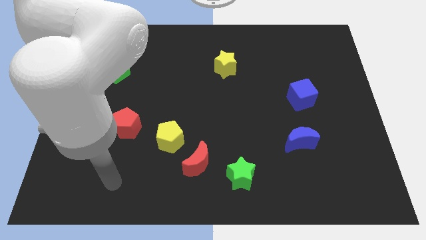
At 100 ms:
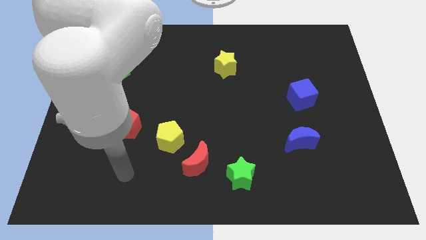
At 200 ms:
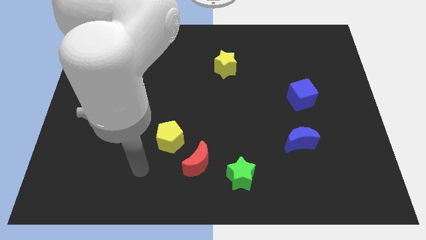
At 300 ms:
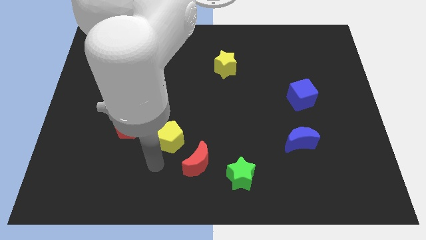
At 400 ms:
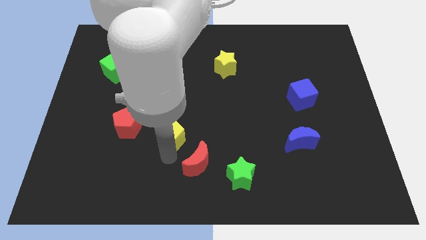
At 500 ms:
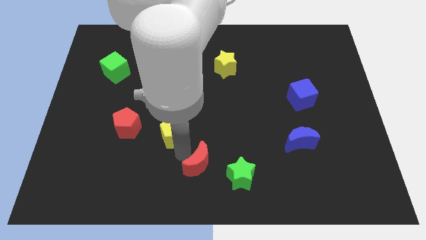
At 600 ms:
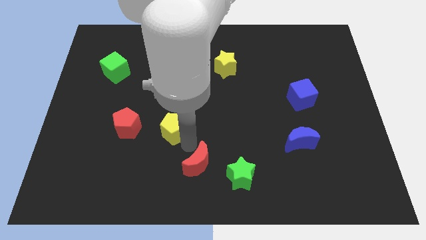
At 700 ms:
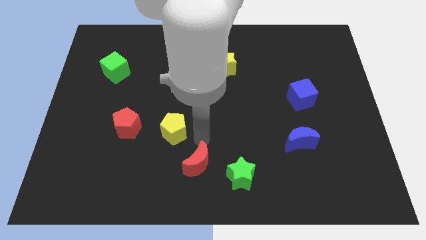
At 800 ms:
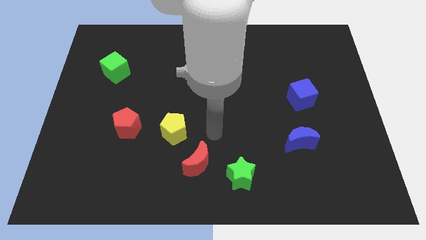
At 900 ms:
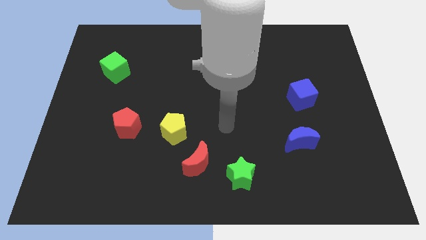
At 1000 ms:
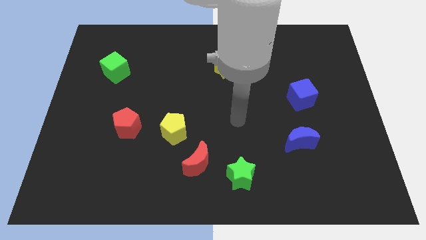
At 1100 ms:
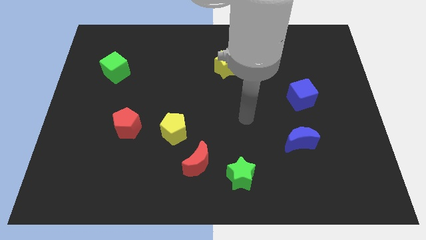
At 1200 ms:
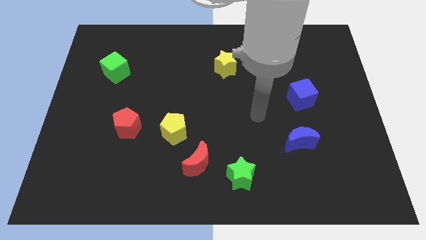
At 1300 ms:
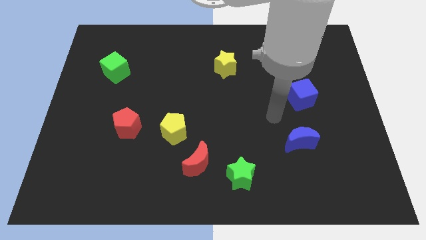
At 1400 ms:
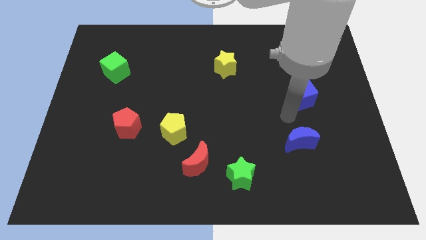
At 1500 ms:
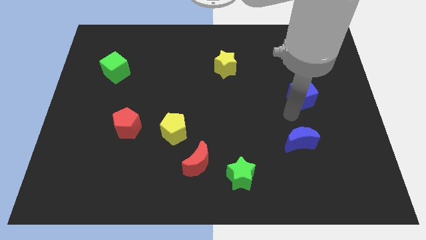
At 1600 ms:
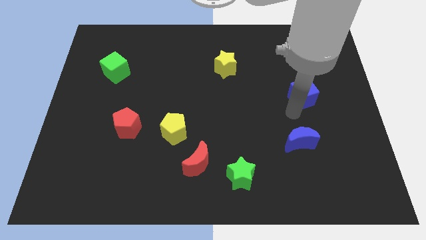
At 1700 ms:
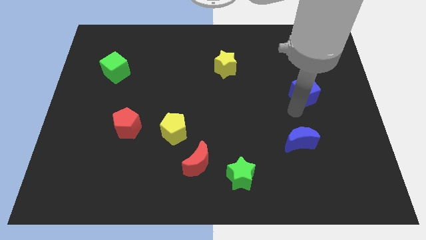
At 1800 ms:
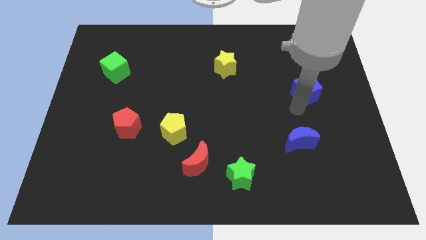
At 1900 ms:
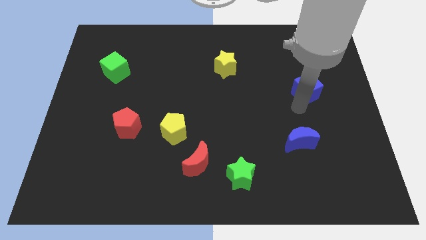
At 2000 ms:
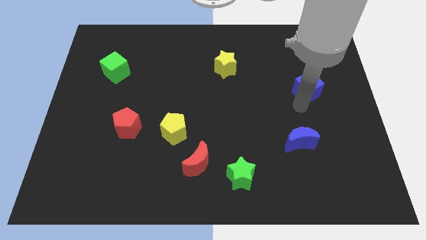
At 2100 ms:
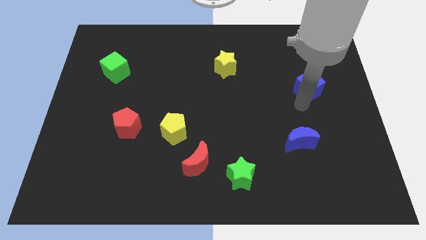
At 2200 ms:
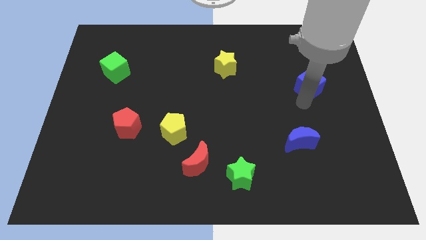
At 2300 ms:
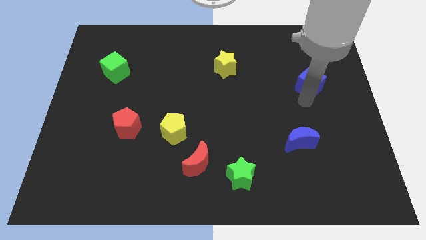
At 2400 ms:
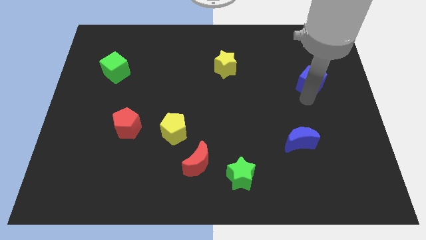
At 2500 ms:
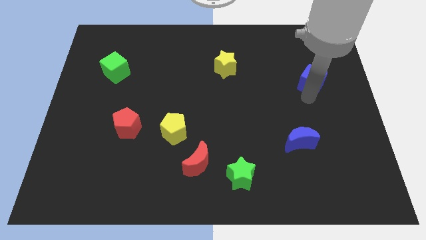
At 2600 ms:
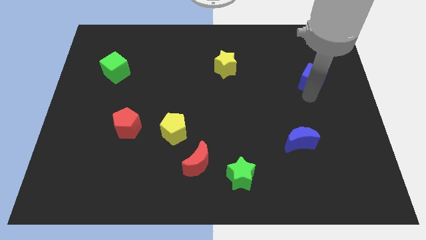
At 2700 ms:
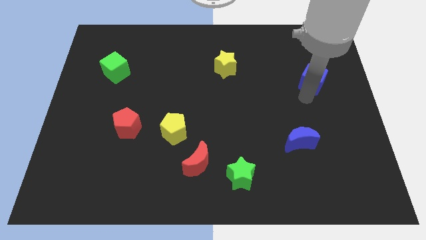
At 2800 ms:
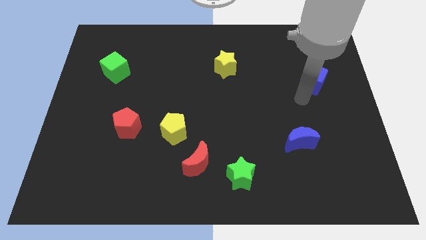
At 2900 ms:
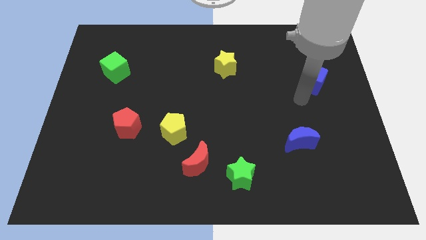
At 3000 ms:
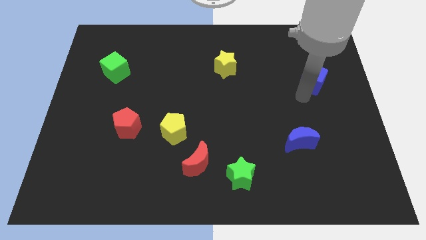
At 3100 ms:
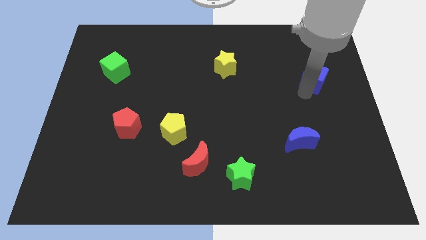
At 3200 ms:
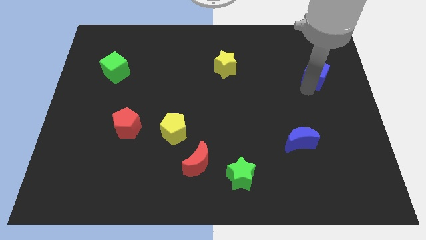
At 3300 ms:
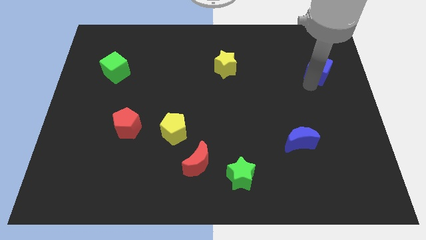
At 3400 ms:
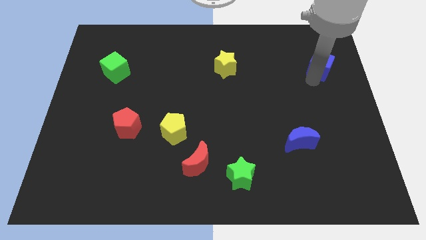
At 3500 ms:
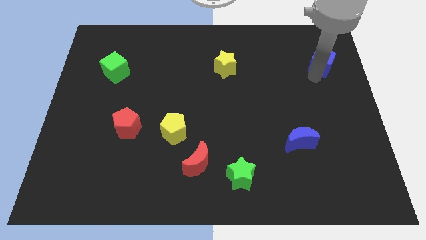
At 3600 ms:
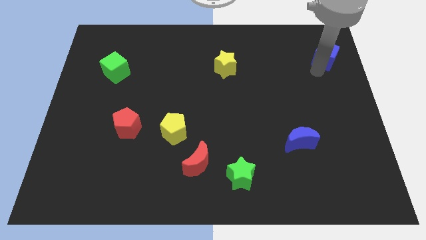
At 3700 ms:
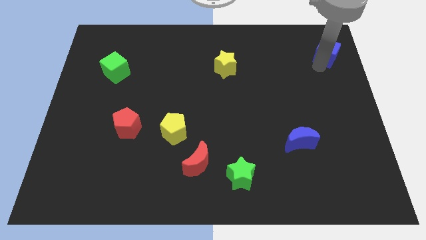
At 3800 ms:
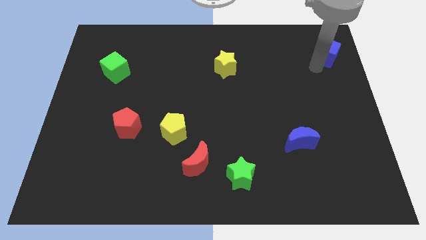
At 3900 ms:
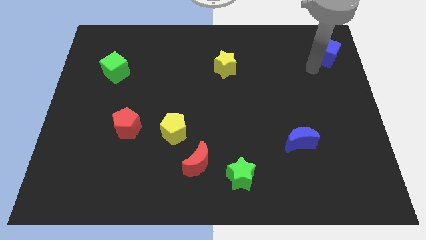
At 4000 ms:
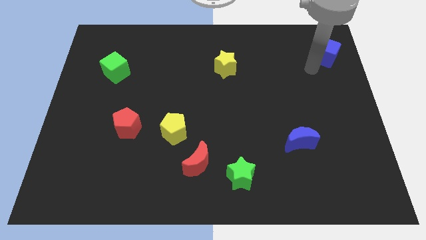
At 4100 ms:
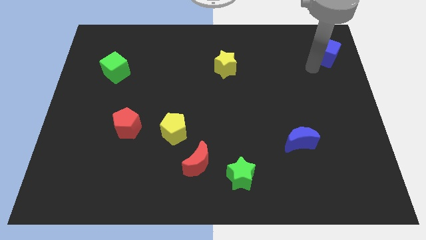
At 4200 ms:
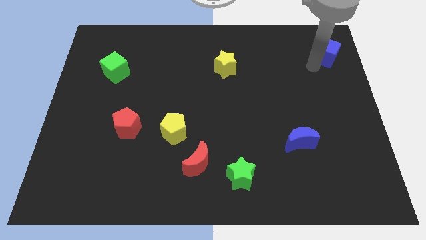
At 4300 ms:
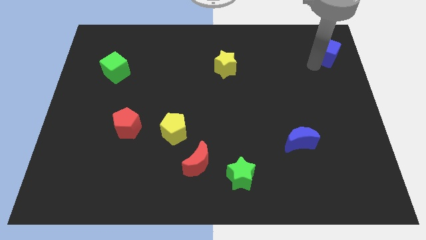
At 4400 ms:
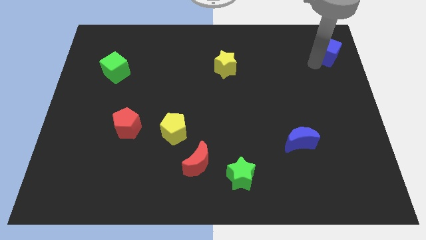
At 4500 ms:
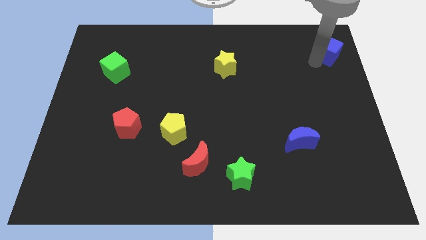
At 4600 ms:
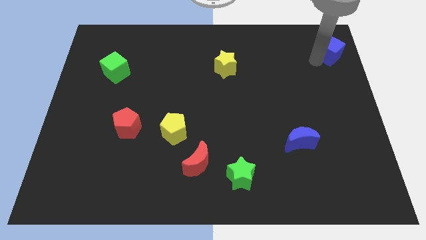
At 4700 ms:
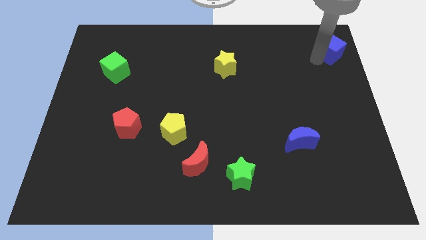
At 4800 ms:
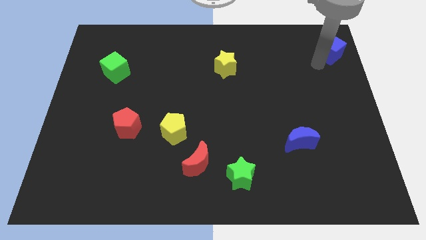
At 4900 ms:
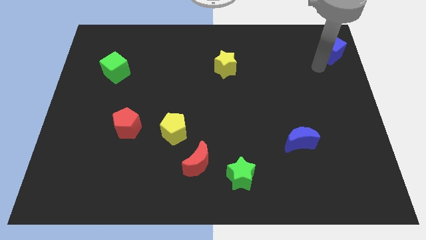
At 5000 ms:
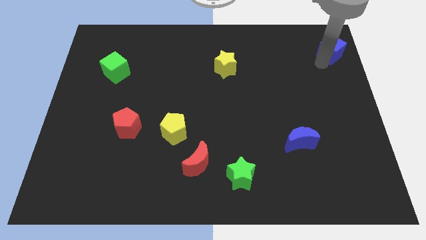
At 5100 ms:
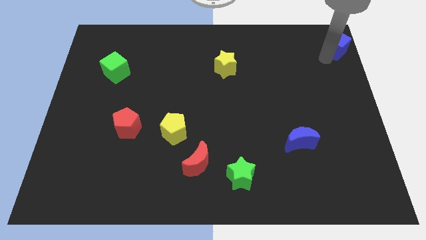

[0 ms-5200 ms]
put the blue cube to the top right of the board

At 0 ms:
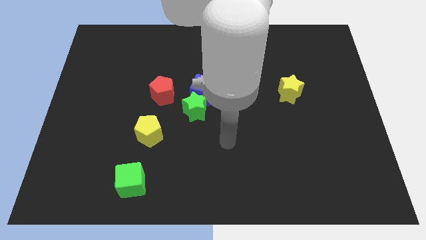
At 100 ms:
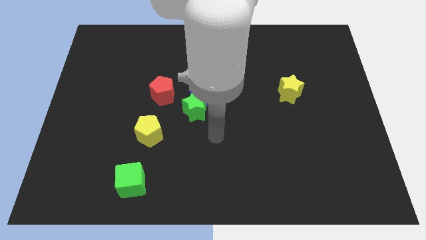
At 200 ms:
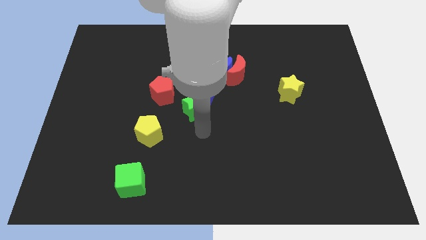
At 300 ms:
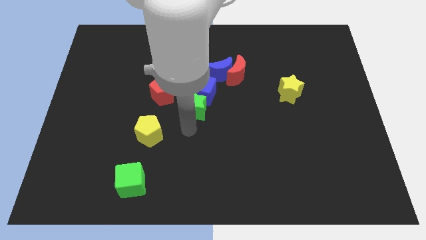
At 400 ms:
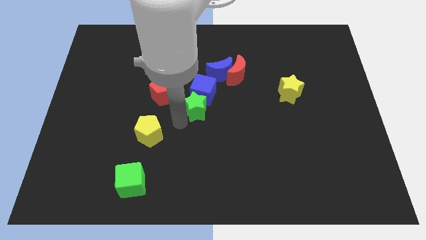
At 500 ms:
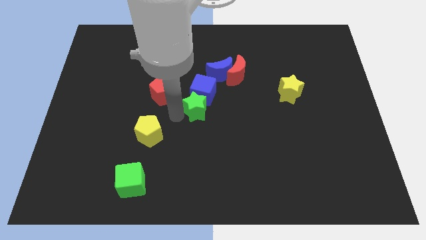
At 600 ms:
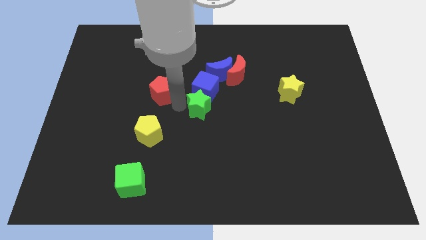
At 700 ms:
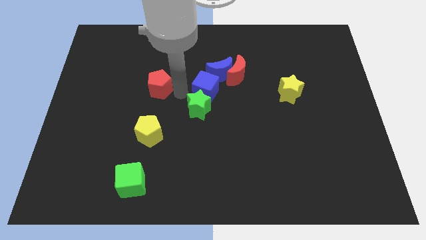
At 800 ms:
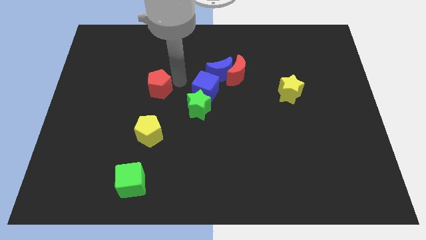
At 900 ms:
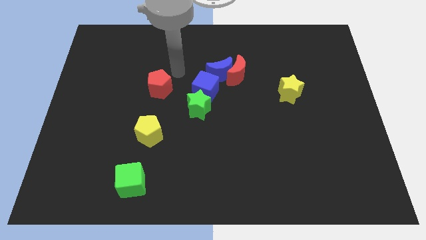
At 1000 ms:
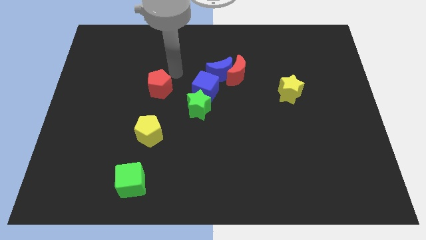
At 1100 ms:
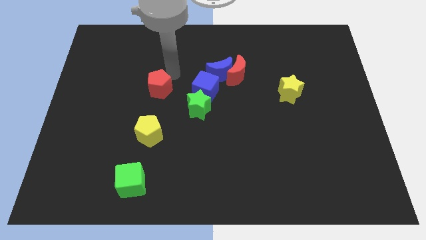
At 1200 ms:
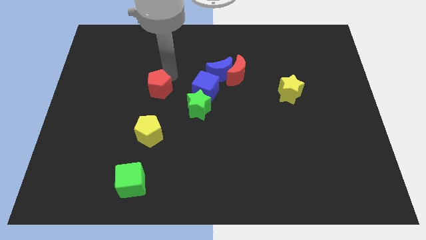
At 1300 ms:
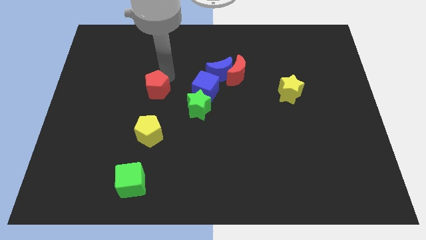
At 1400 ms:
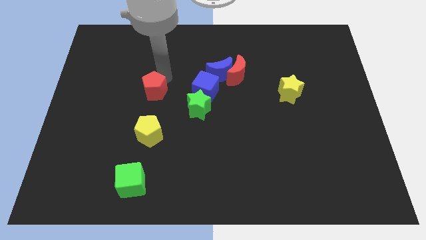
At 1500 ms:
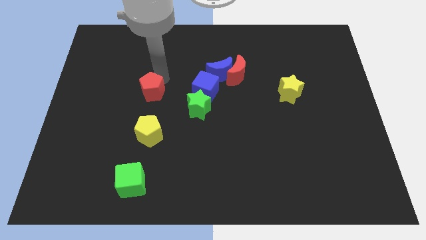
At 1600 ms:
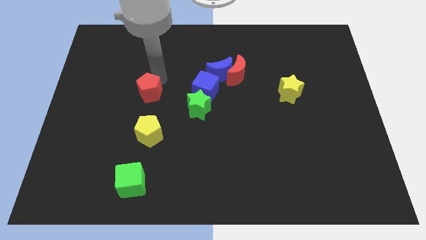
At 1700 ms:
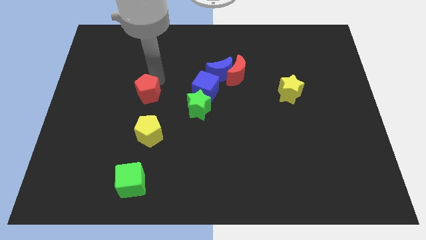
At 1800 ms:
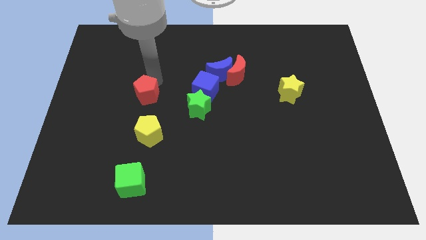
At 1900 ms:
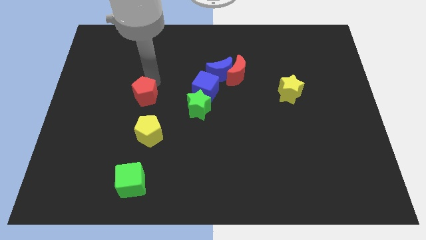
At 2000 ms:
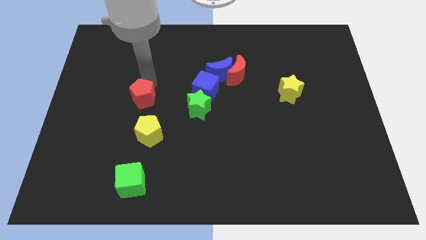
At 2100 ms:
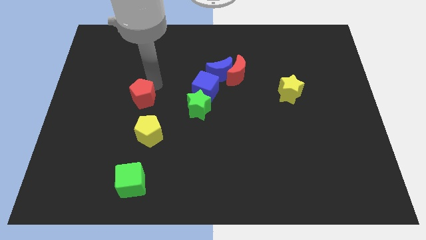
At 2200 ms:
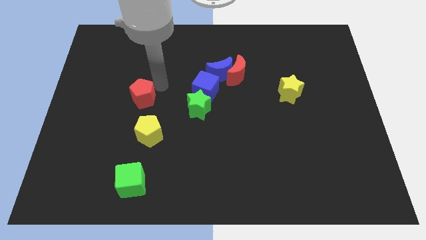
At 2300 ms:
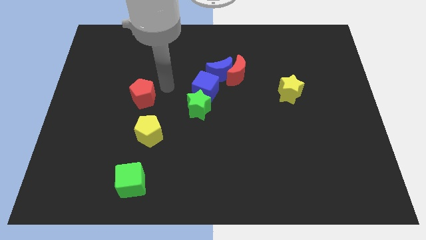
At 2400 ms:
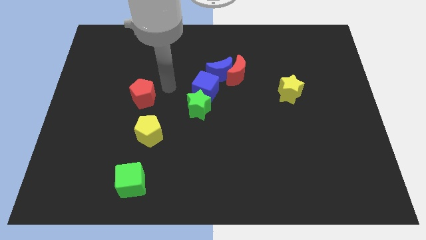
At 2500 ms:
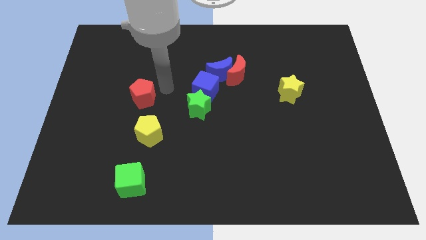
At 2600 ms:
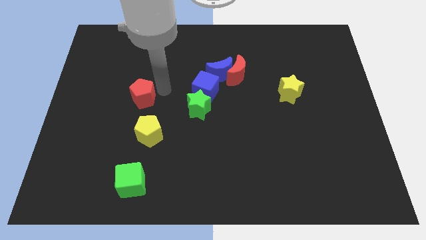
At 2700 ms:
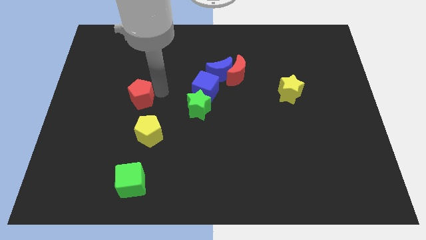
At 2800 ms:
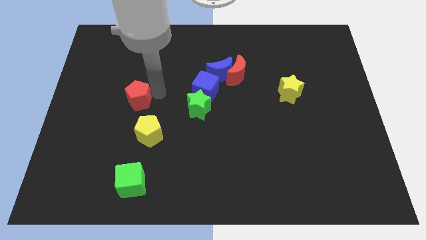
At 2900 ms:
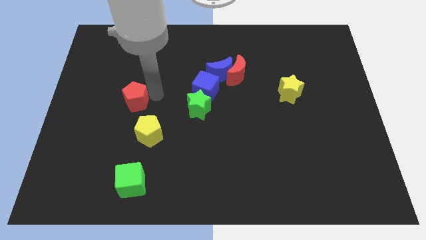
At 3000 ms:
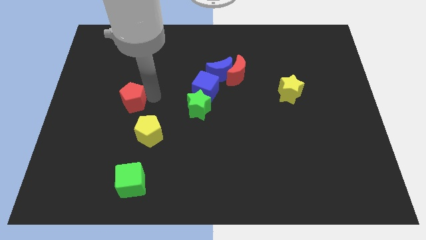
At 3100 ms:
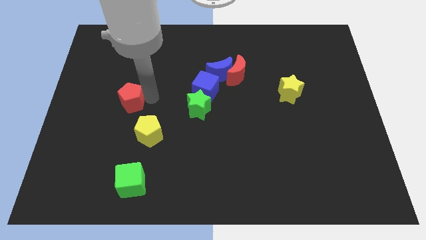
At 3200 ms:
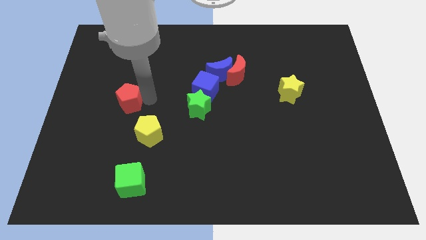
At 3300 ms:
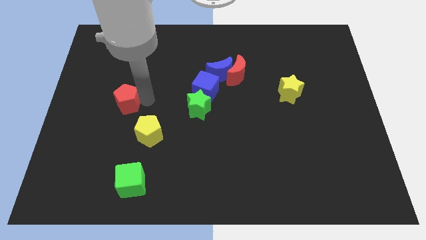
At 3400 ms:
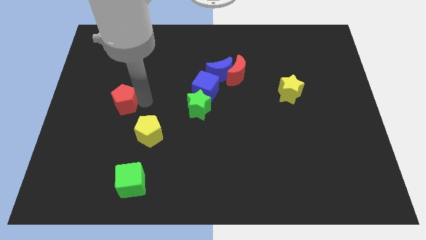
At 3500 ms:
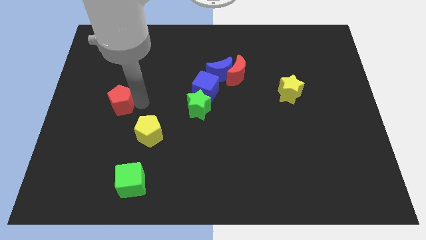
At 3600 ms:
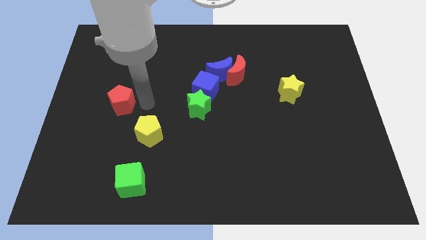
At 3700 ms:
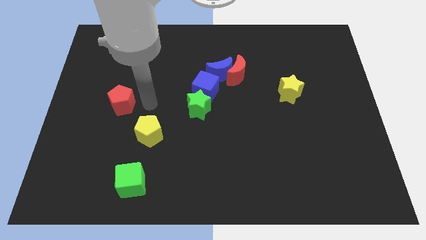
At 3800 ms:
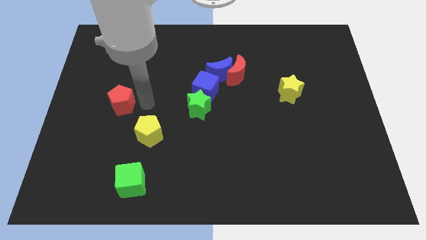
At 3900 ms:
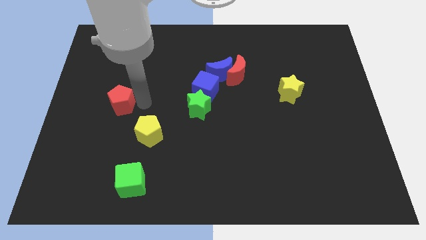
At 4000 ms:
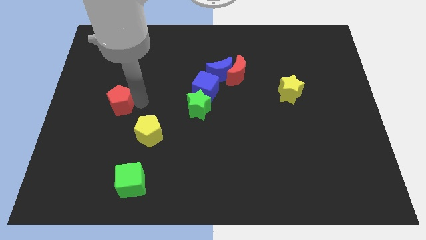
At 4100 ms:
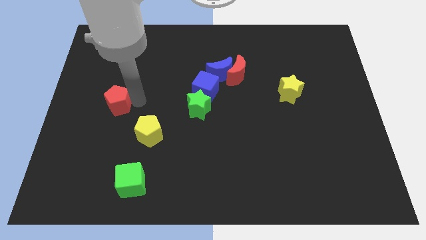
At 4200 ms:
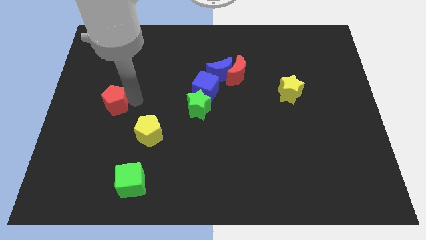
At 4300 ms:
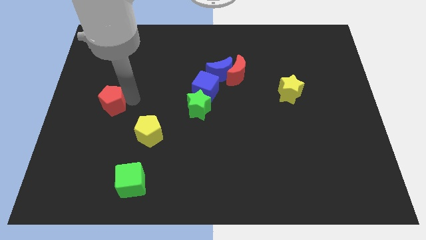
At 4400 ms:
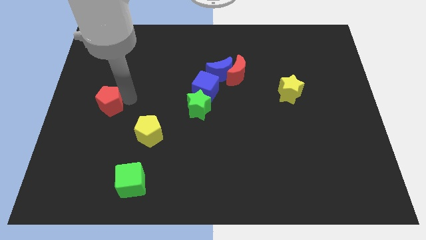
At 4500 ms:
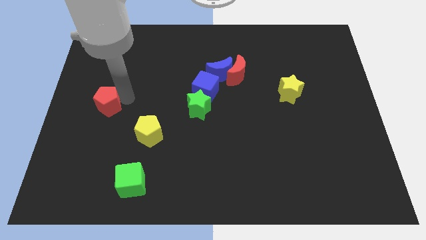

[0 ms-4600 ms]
slide the red pentagon to the left side
